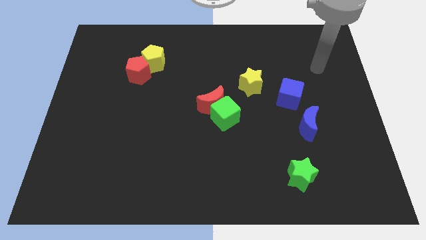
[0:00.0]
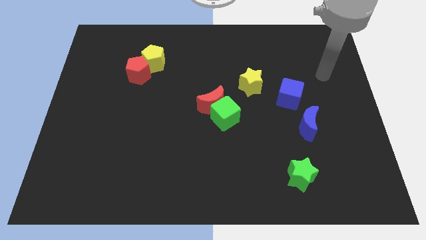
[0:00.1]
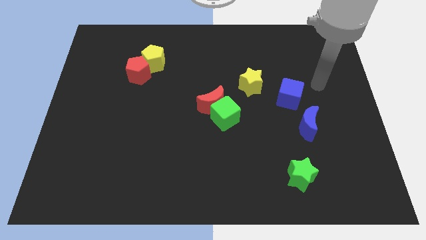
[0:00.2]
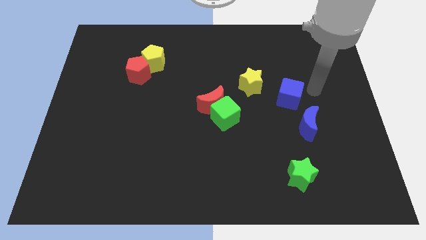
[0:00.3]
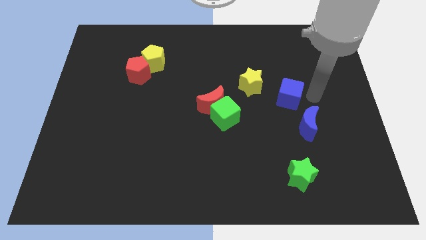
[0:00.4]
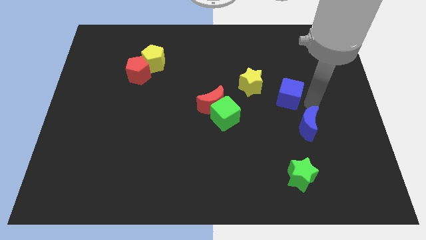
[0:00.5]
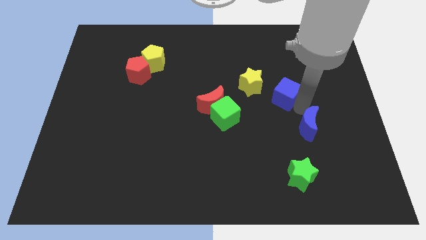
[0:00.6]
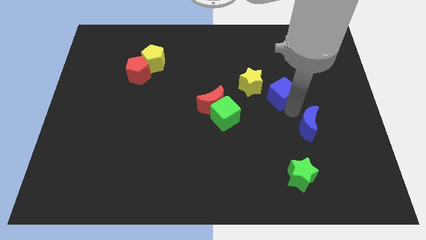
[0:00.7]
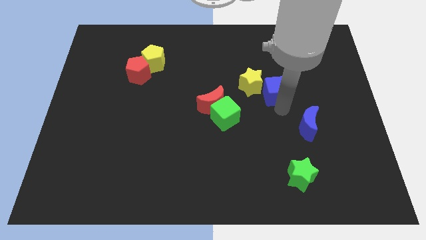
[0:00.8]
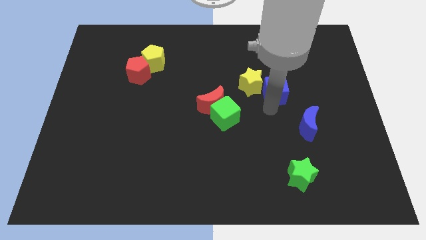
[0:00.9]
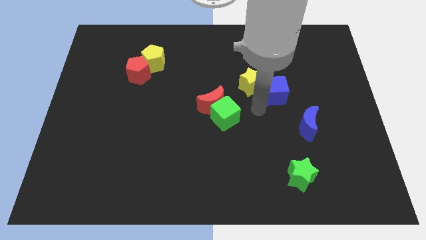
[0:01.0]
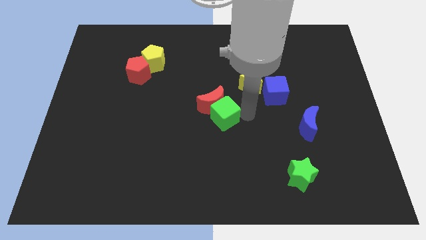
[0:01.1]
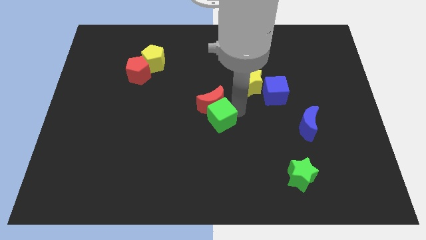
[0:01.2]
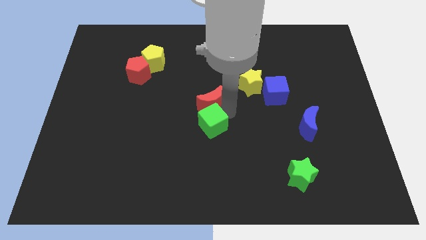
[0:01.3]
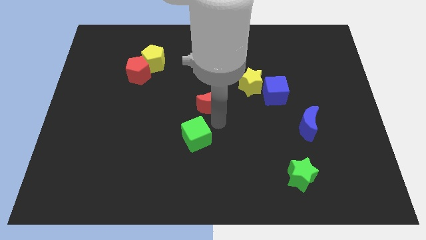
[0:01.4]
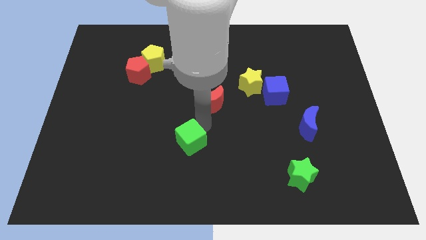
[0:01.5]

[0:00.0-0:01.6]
pull the red moon apart from the green cube

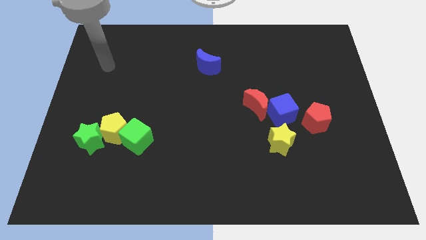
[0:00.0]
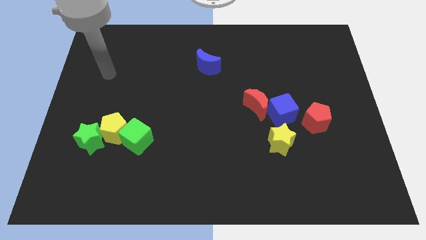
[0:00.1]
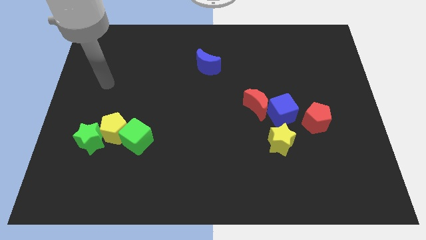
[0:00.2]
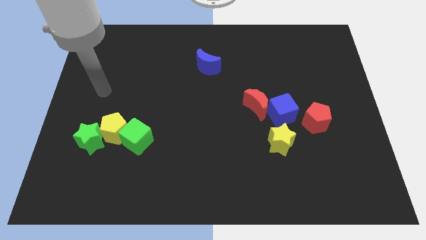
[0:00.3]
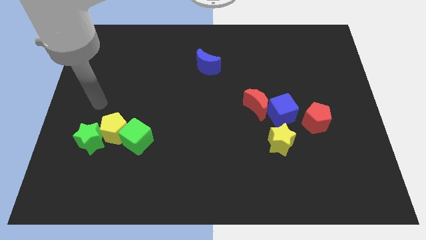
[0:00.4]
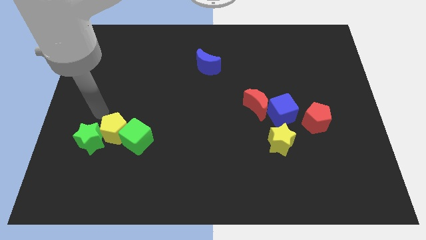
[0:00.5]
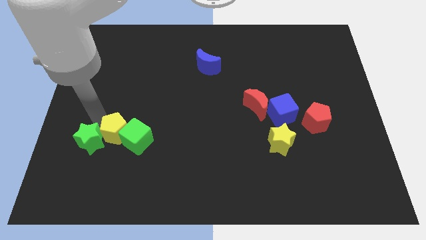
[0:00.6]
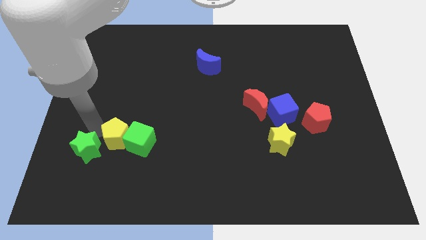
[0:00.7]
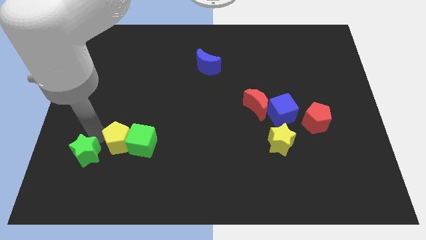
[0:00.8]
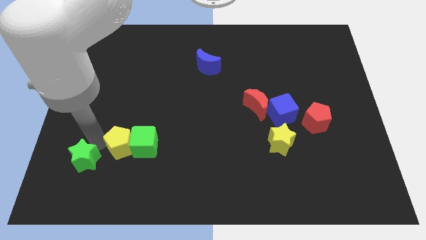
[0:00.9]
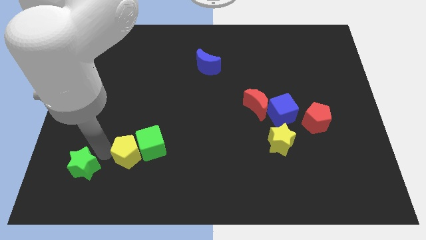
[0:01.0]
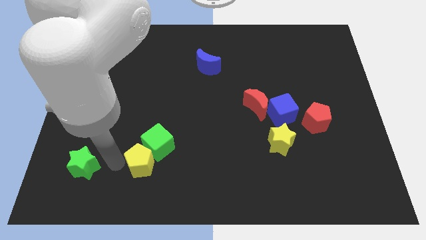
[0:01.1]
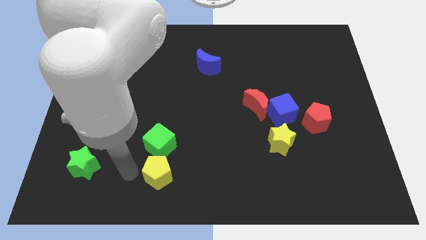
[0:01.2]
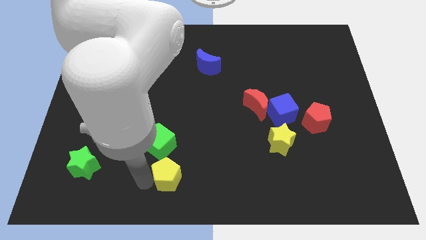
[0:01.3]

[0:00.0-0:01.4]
move the yellow pentagon away from the green star and green cube

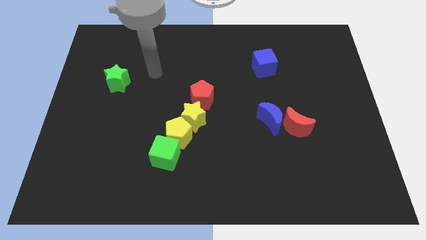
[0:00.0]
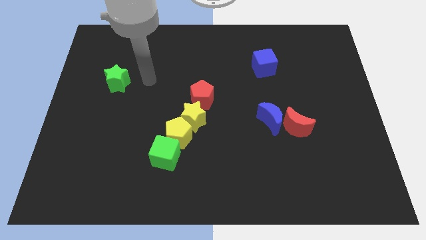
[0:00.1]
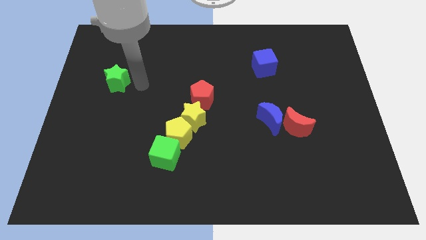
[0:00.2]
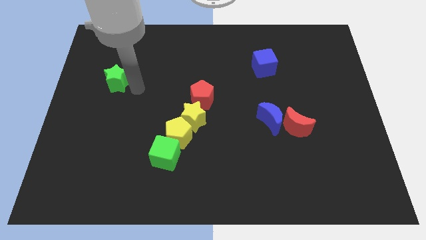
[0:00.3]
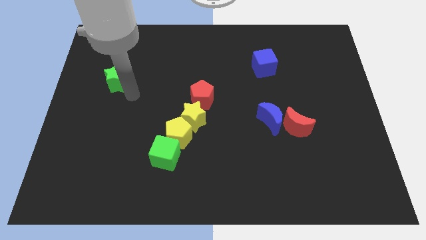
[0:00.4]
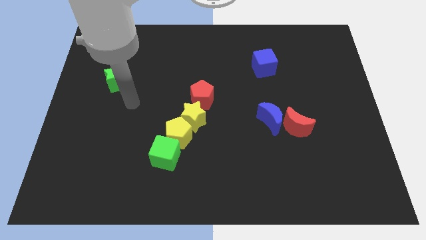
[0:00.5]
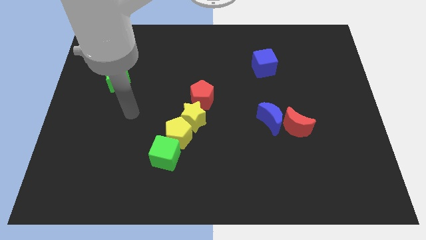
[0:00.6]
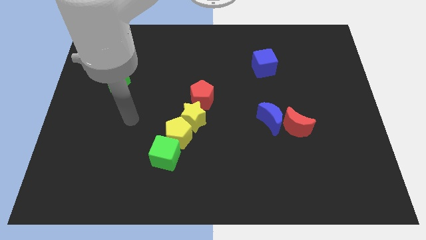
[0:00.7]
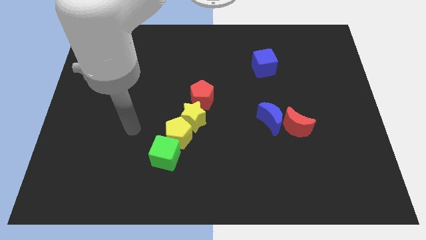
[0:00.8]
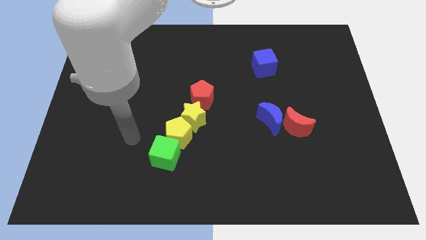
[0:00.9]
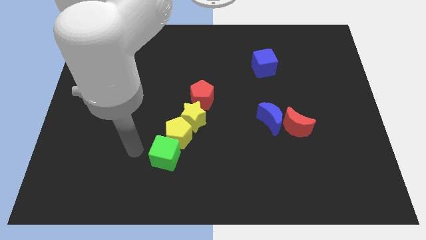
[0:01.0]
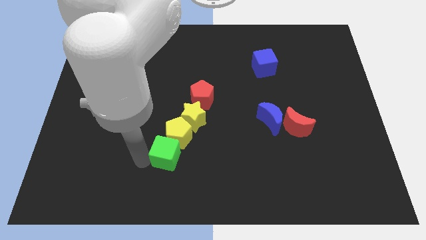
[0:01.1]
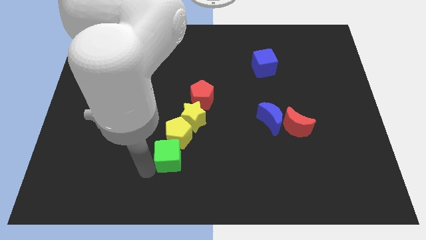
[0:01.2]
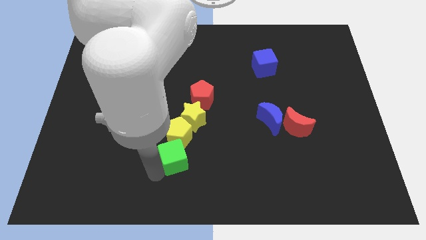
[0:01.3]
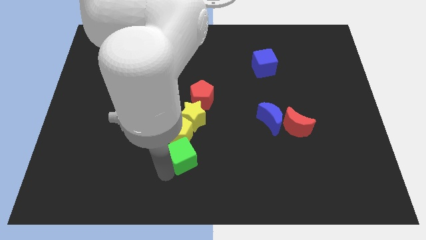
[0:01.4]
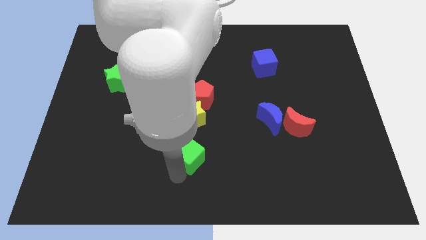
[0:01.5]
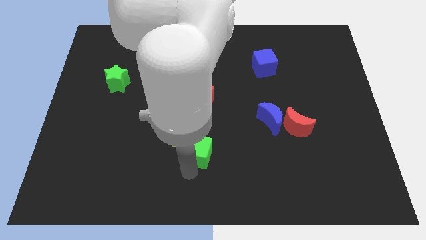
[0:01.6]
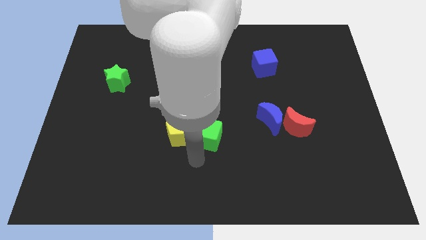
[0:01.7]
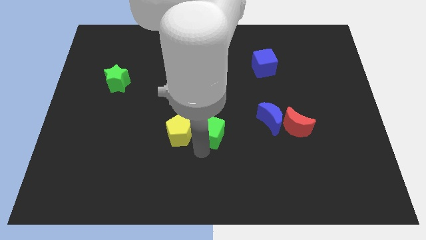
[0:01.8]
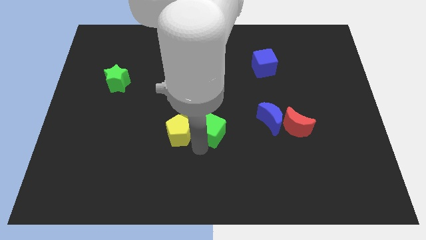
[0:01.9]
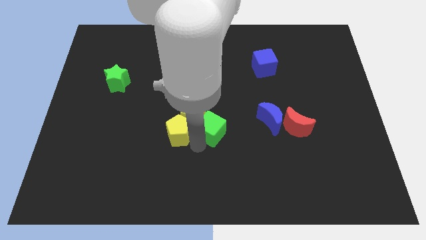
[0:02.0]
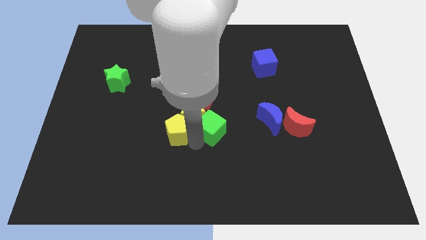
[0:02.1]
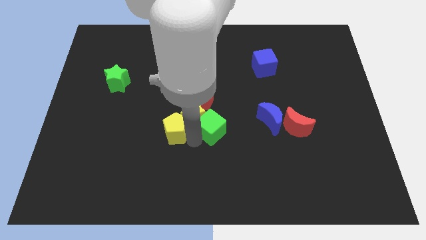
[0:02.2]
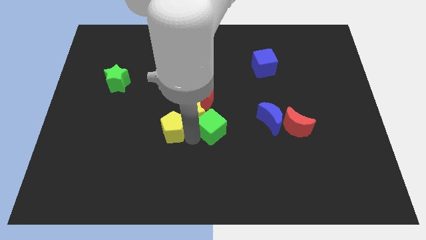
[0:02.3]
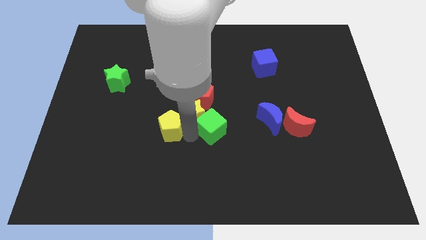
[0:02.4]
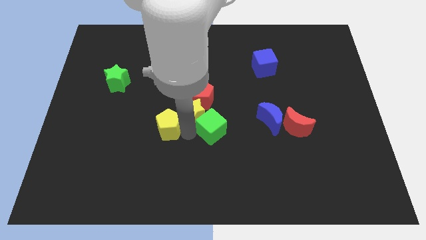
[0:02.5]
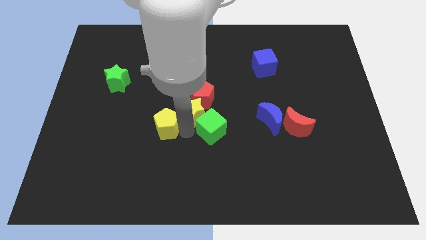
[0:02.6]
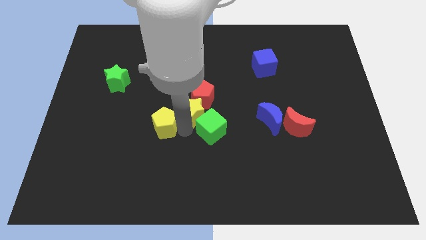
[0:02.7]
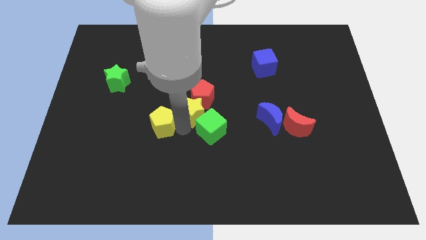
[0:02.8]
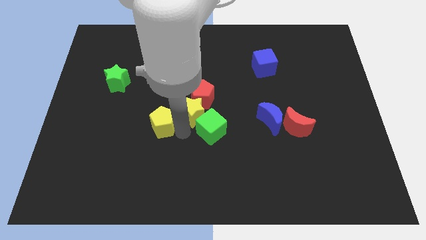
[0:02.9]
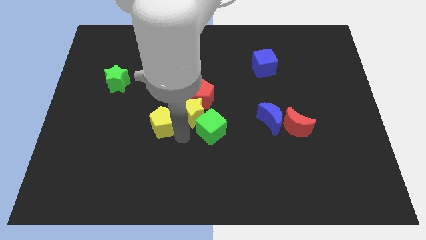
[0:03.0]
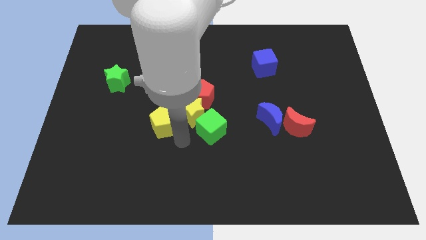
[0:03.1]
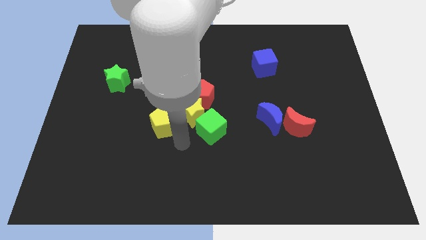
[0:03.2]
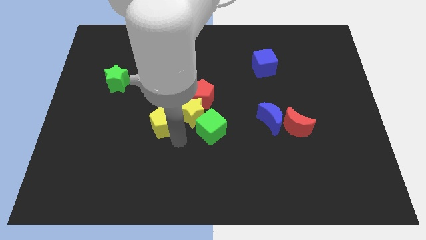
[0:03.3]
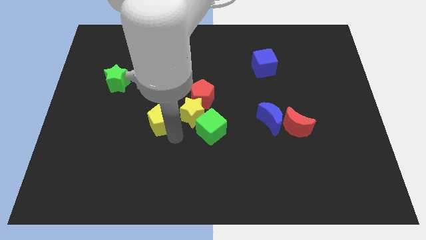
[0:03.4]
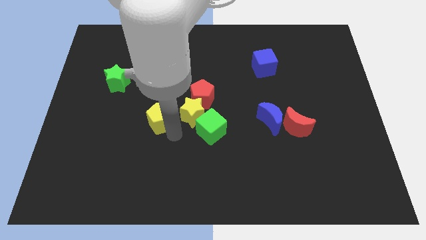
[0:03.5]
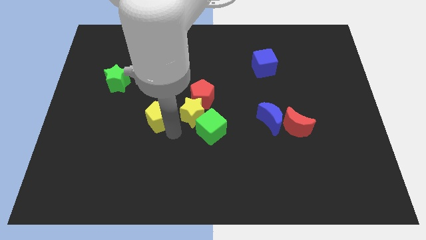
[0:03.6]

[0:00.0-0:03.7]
move the yellow pentagon away from the yellow star and green cube

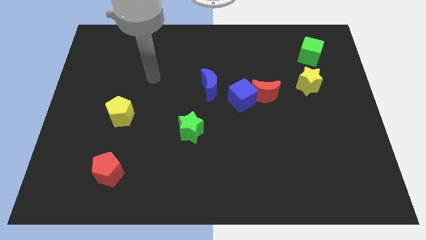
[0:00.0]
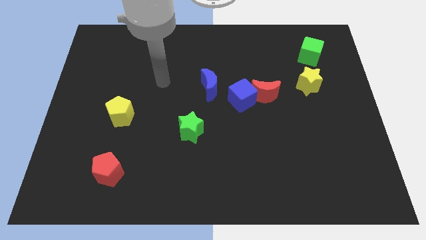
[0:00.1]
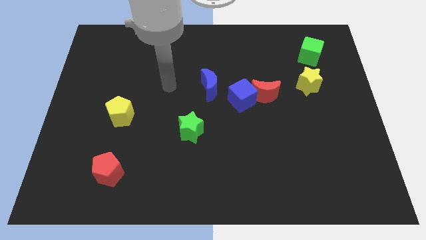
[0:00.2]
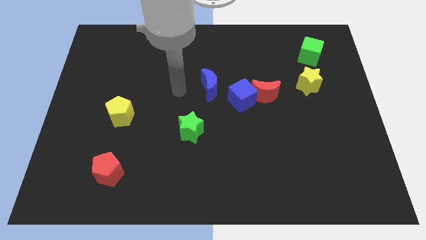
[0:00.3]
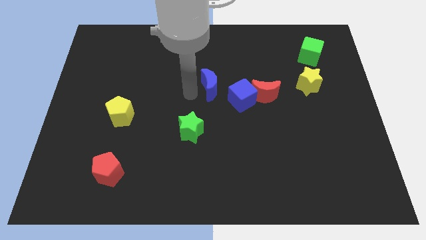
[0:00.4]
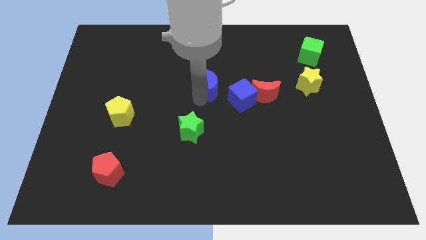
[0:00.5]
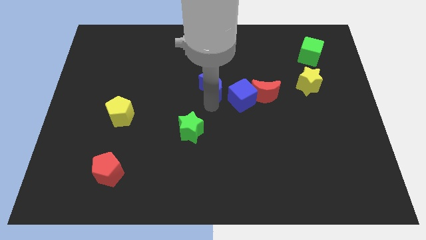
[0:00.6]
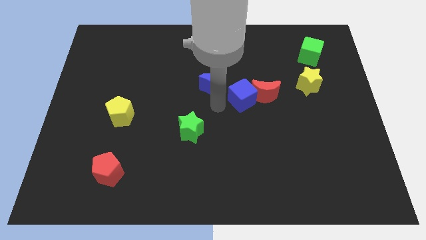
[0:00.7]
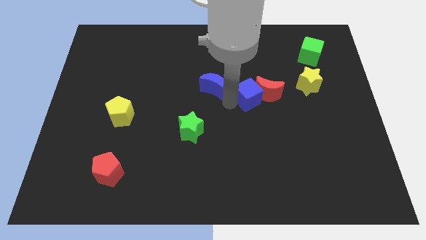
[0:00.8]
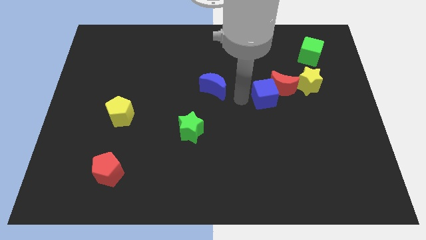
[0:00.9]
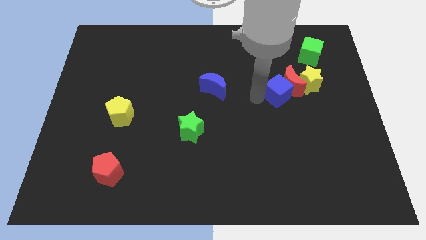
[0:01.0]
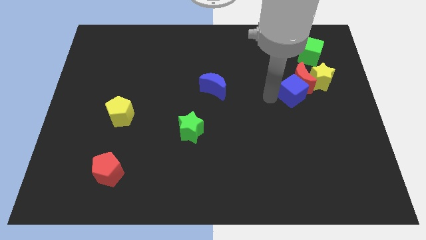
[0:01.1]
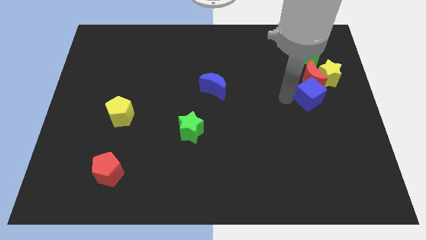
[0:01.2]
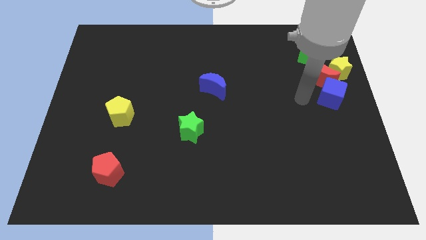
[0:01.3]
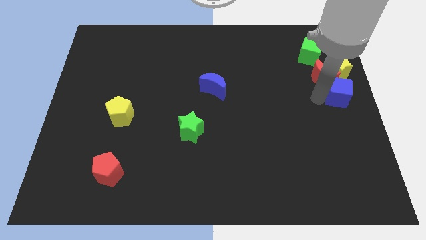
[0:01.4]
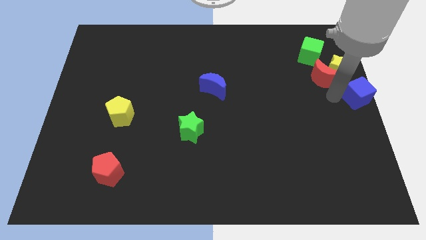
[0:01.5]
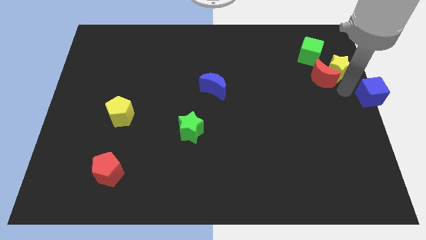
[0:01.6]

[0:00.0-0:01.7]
move the red moon away from the blue cube

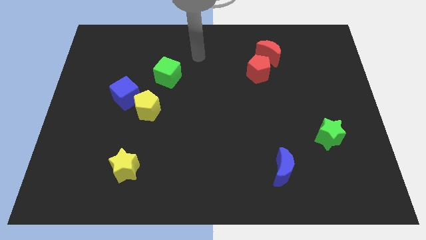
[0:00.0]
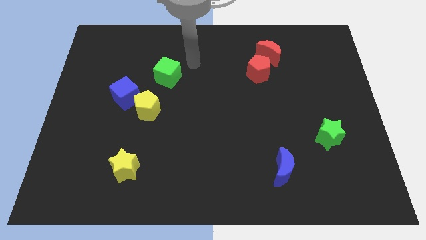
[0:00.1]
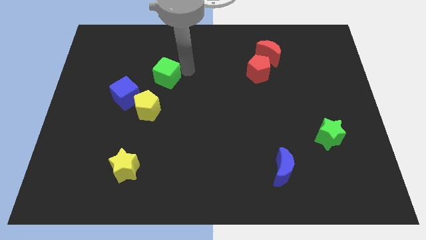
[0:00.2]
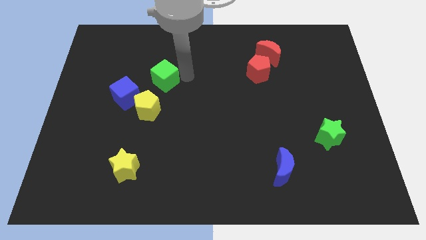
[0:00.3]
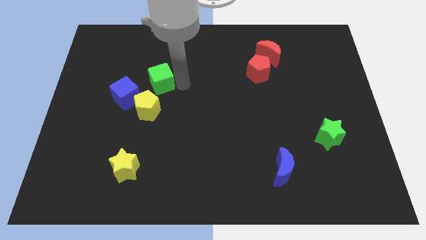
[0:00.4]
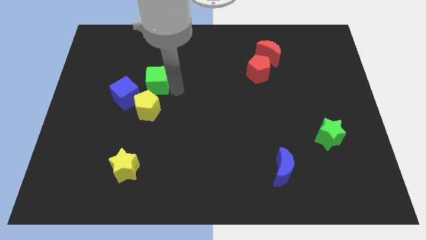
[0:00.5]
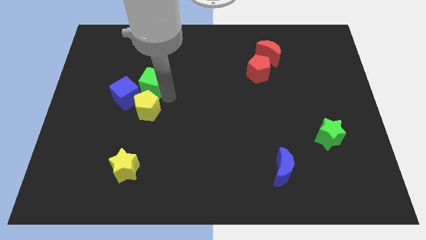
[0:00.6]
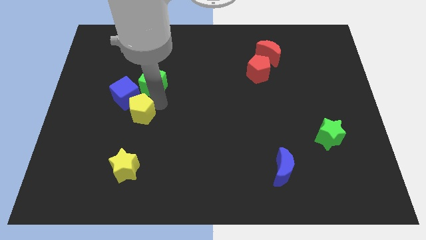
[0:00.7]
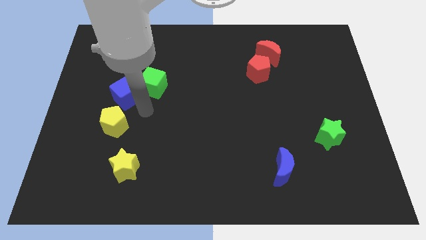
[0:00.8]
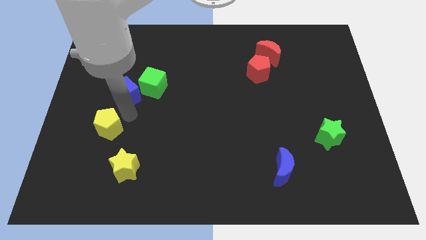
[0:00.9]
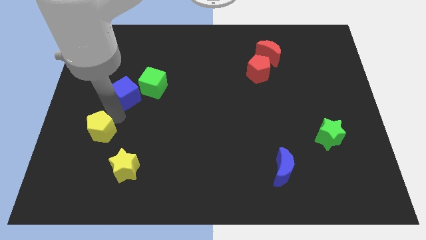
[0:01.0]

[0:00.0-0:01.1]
pull the blue cube apart from the yellow pentagon
